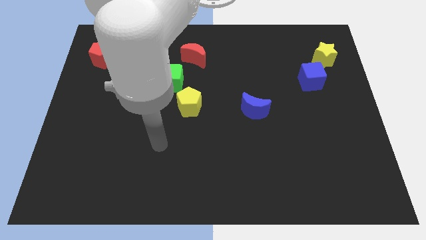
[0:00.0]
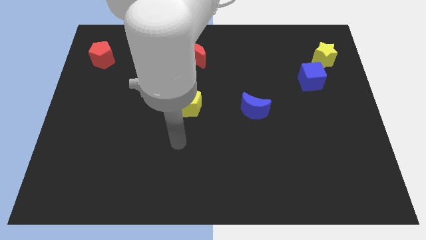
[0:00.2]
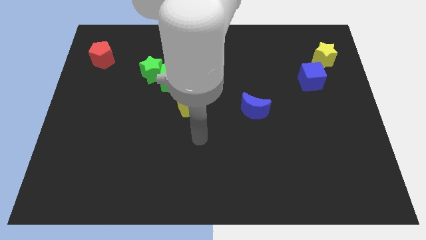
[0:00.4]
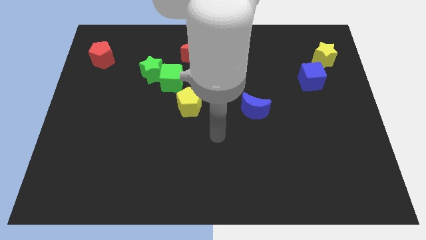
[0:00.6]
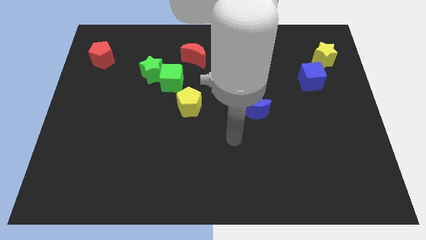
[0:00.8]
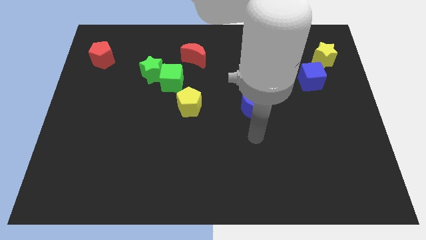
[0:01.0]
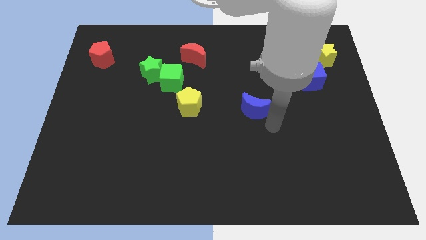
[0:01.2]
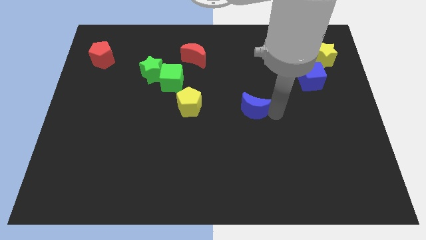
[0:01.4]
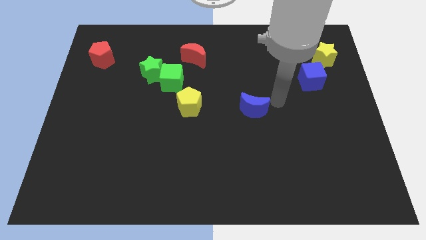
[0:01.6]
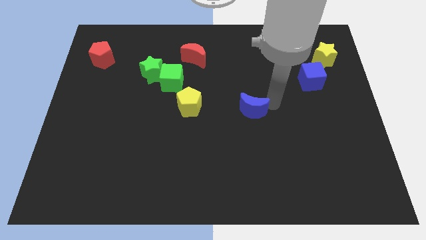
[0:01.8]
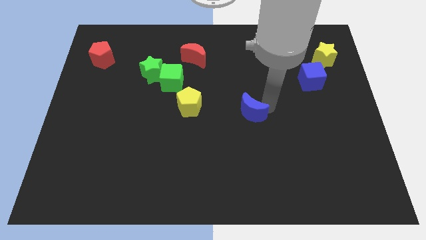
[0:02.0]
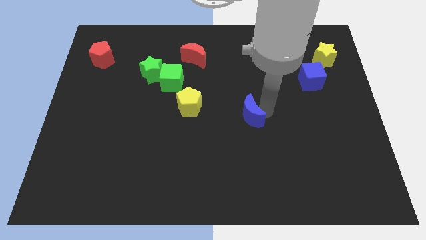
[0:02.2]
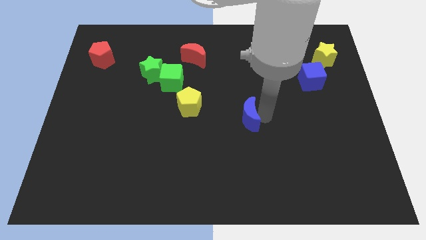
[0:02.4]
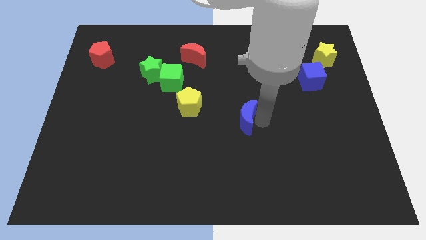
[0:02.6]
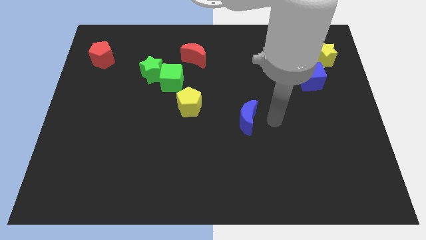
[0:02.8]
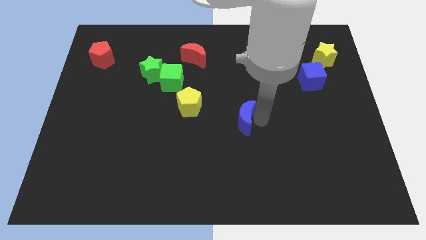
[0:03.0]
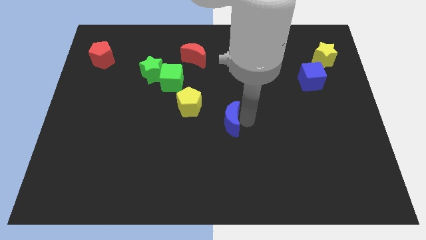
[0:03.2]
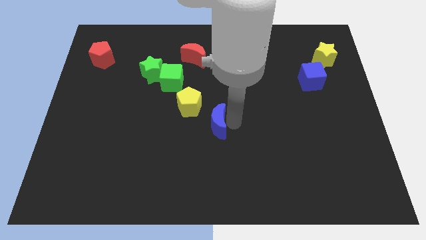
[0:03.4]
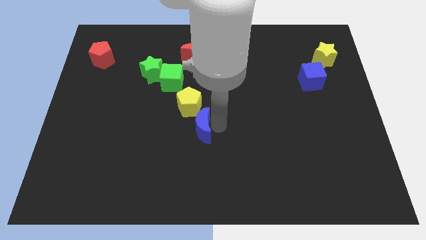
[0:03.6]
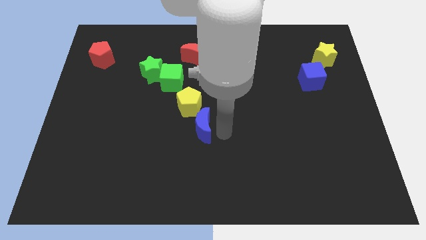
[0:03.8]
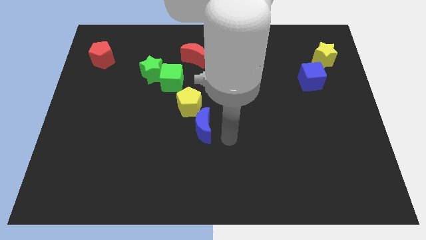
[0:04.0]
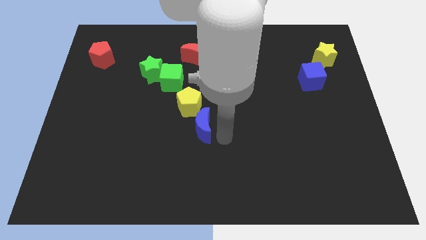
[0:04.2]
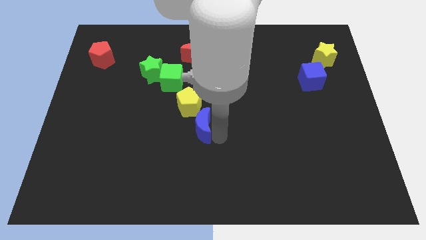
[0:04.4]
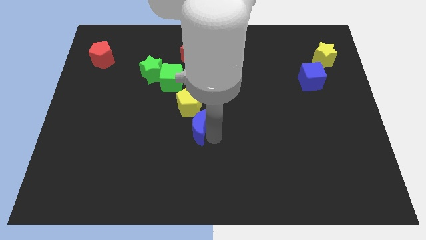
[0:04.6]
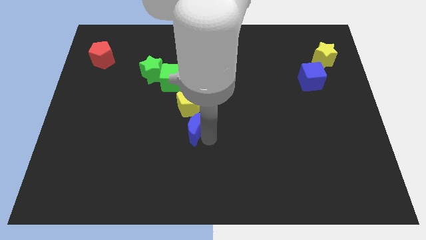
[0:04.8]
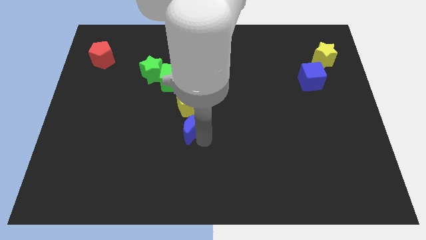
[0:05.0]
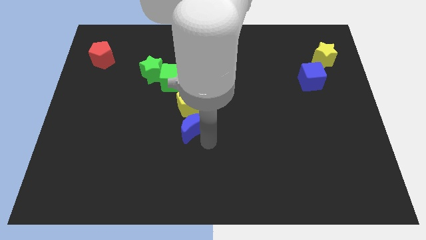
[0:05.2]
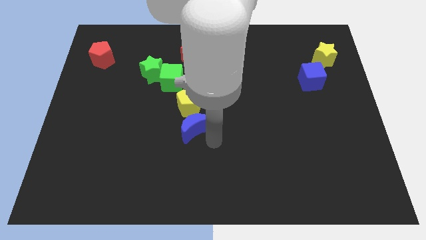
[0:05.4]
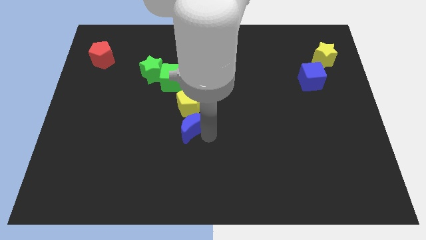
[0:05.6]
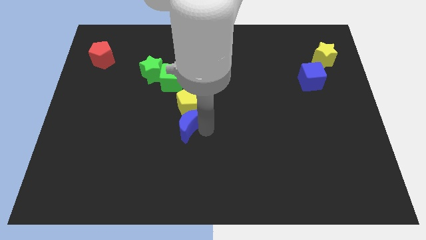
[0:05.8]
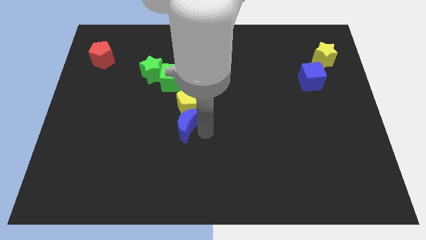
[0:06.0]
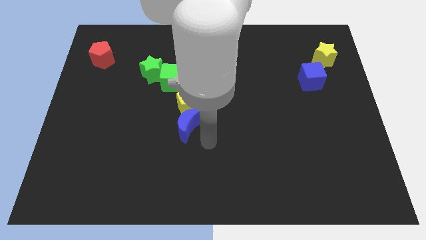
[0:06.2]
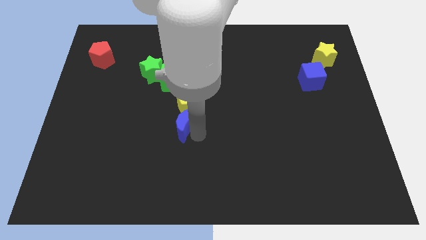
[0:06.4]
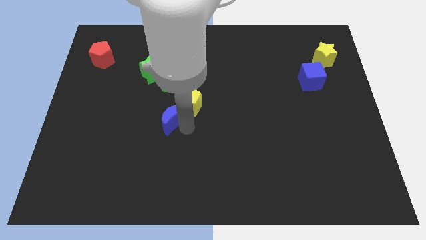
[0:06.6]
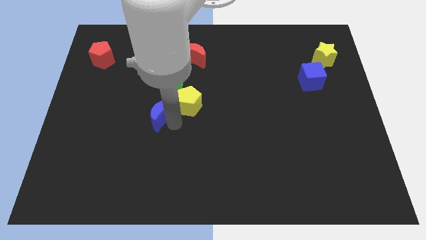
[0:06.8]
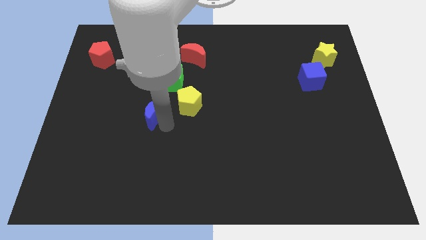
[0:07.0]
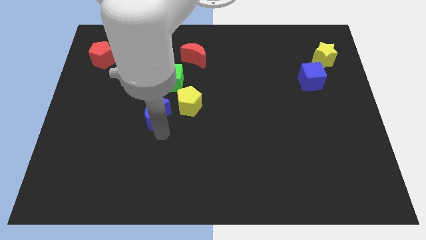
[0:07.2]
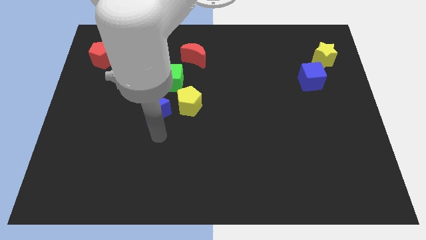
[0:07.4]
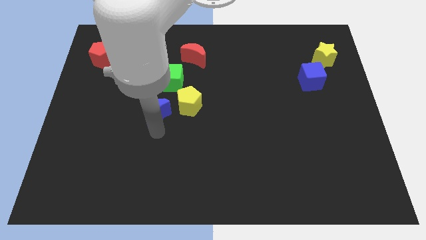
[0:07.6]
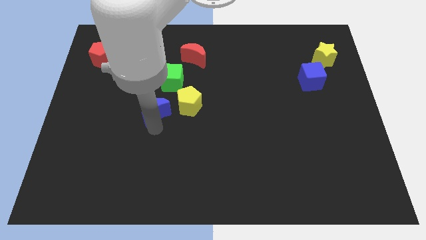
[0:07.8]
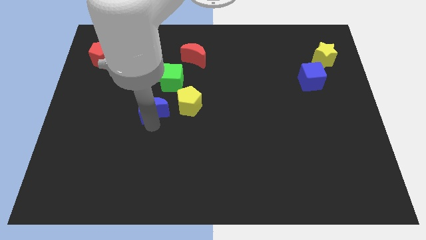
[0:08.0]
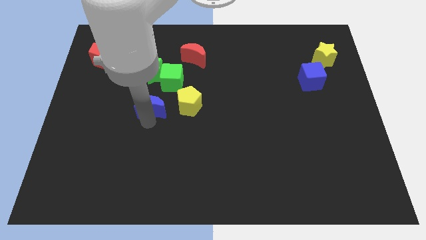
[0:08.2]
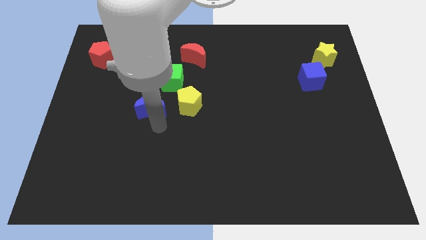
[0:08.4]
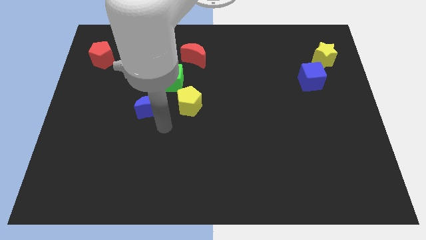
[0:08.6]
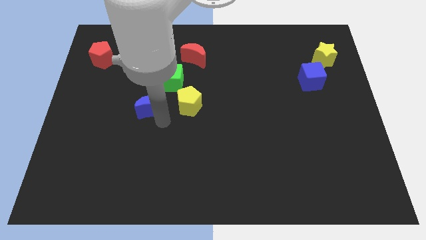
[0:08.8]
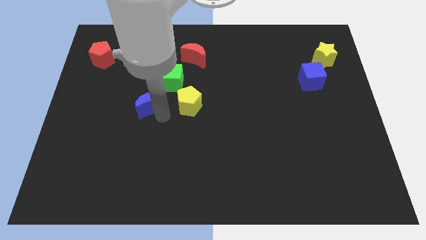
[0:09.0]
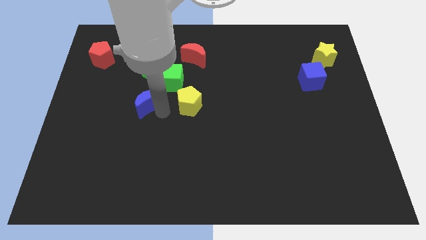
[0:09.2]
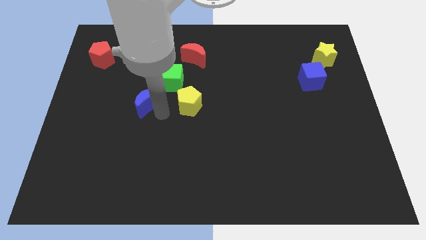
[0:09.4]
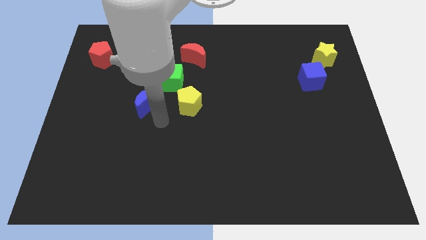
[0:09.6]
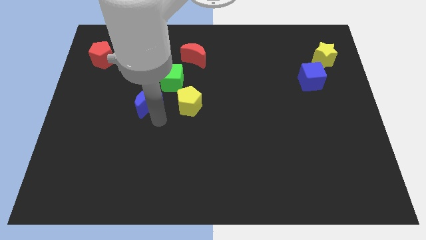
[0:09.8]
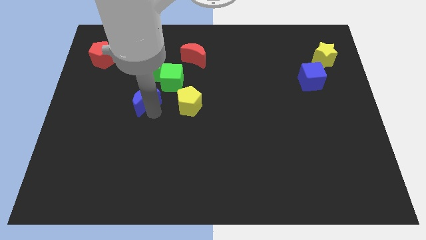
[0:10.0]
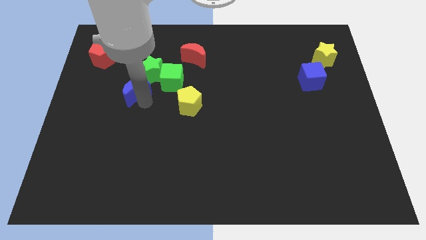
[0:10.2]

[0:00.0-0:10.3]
put the blue moon to the left of the green cube

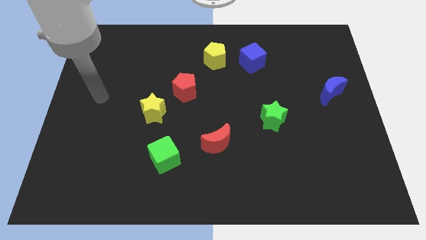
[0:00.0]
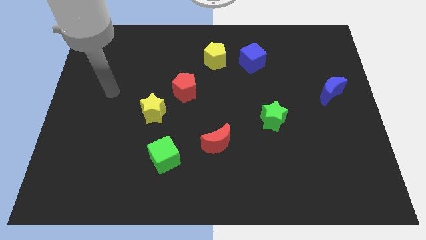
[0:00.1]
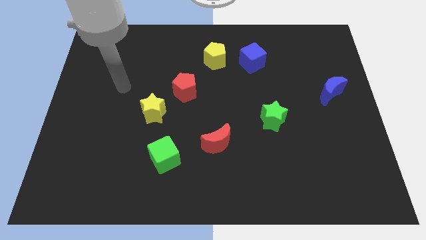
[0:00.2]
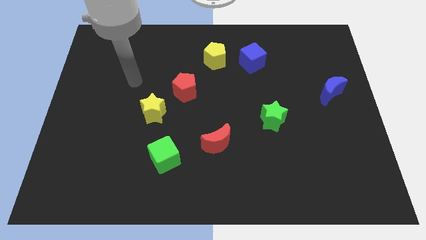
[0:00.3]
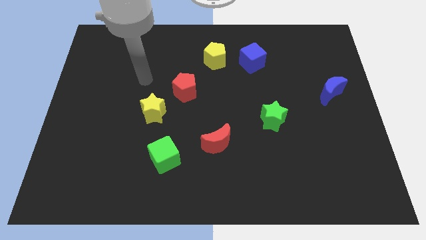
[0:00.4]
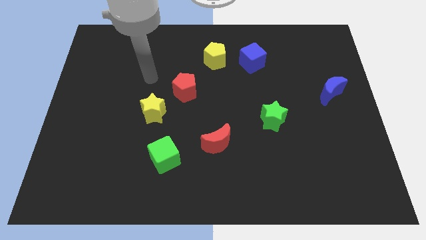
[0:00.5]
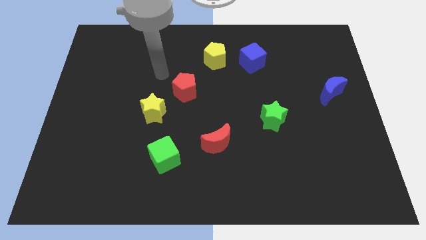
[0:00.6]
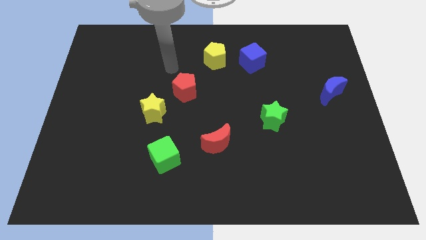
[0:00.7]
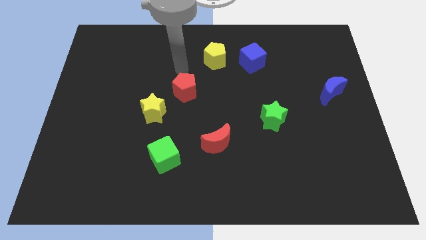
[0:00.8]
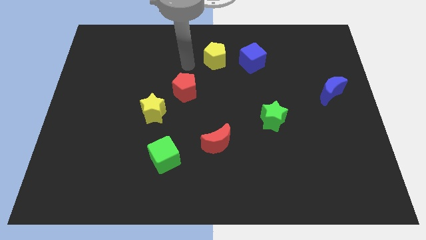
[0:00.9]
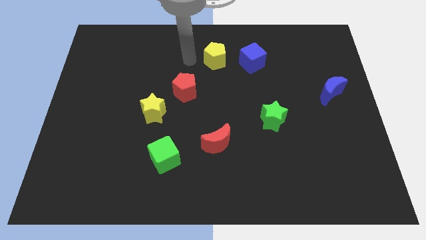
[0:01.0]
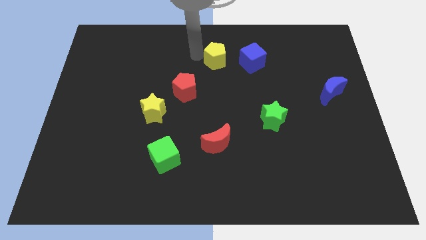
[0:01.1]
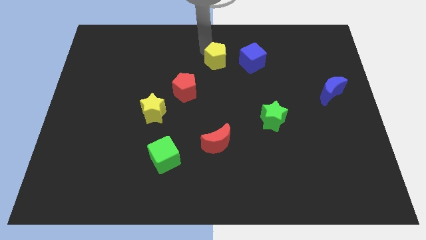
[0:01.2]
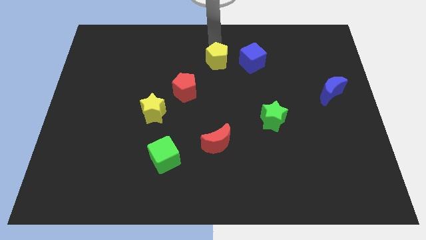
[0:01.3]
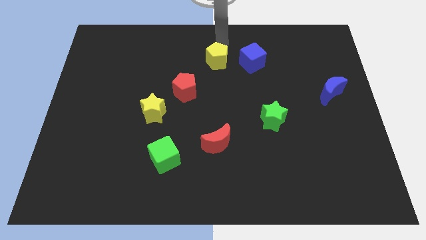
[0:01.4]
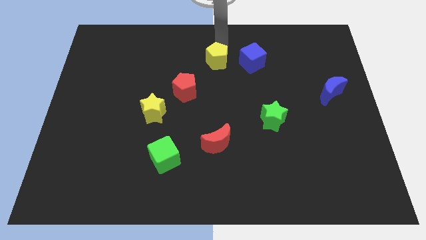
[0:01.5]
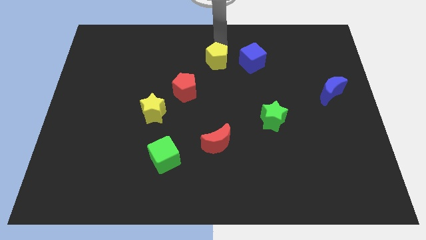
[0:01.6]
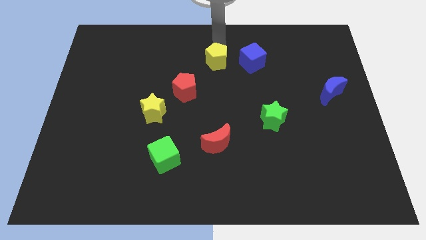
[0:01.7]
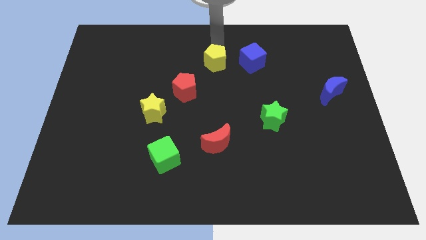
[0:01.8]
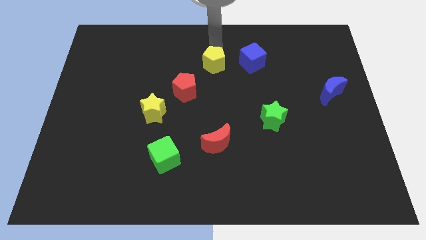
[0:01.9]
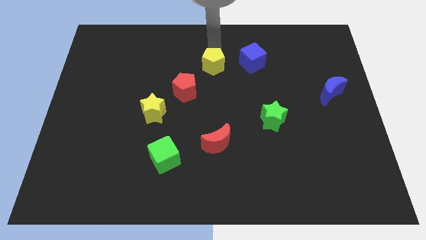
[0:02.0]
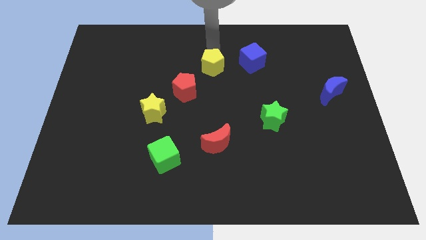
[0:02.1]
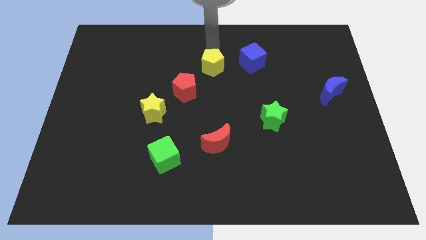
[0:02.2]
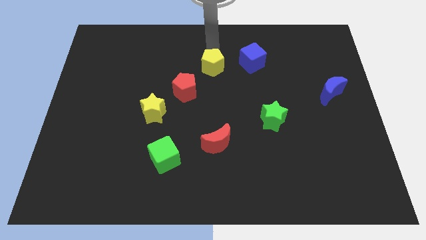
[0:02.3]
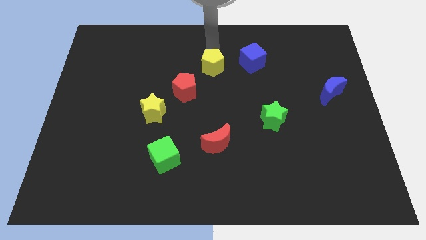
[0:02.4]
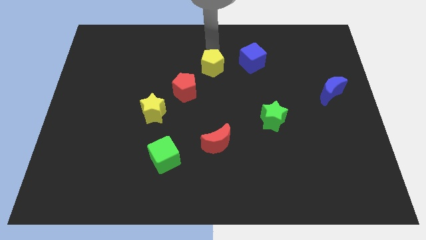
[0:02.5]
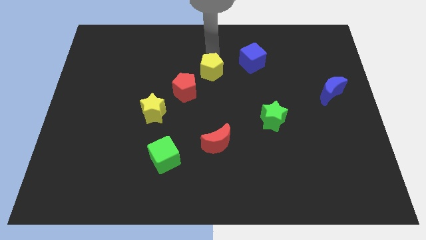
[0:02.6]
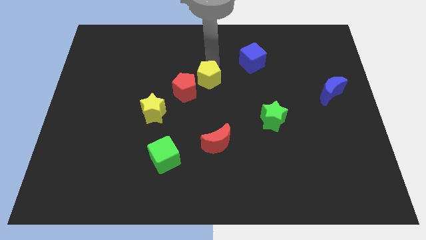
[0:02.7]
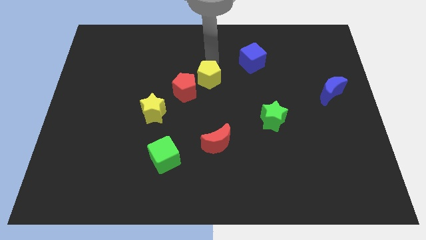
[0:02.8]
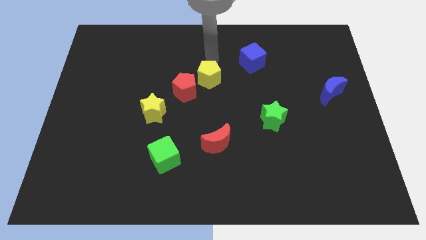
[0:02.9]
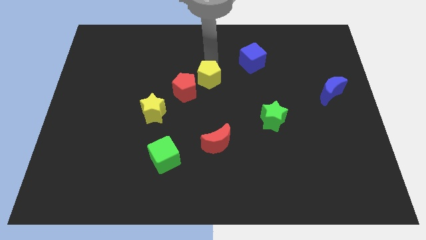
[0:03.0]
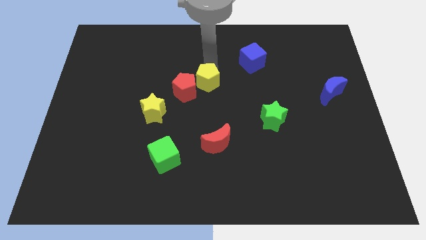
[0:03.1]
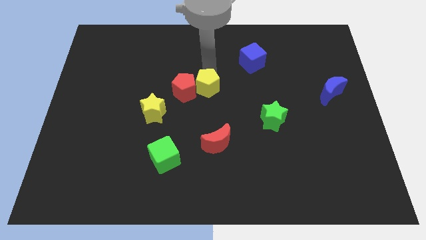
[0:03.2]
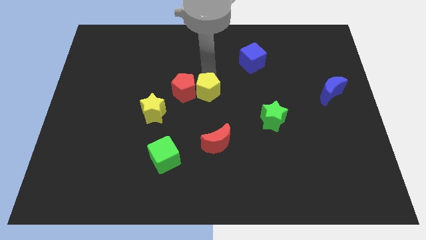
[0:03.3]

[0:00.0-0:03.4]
move the yellow pentagon to the bottom right side of the red pentagon
